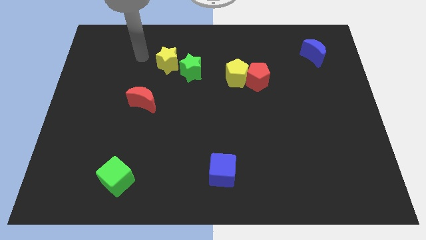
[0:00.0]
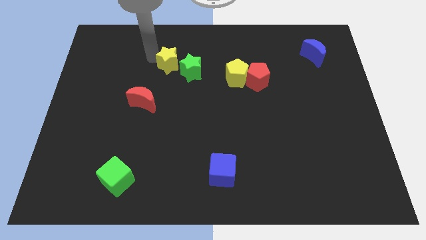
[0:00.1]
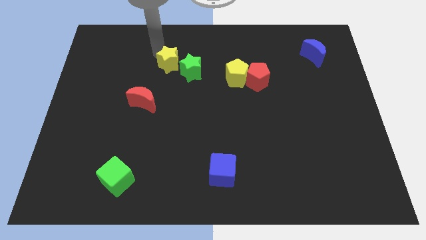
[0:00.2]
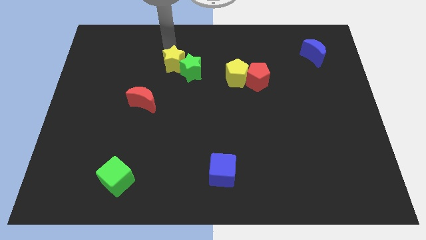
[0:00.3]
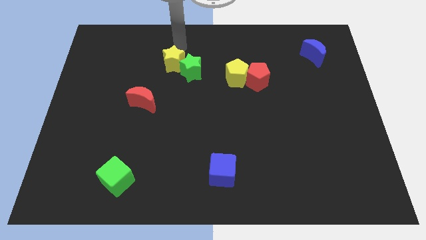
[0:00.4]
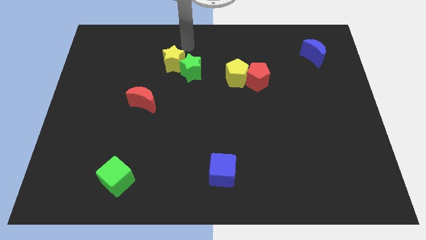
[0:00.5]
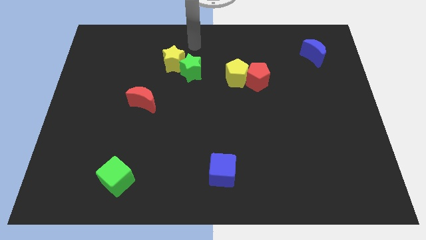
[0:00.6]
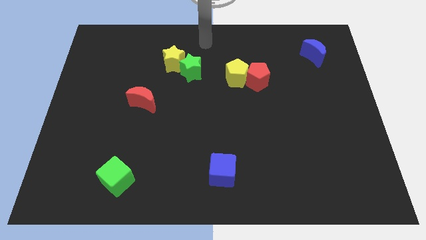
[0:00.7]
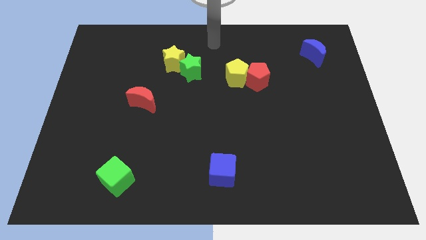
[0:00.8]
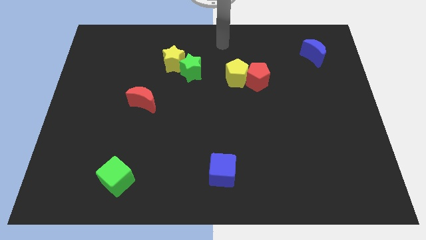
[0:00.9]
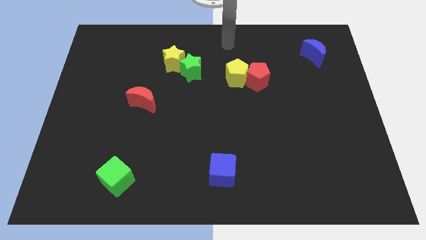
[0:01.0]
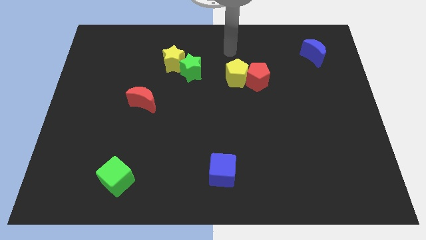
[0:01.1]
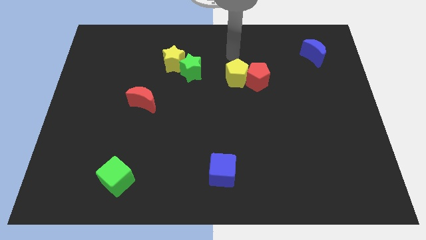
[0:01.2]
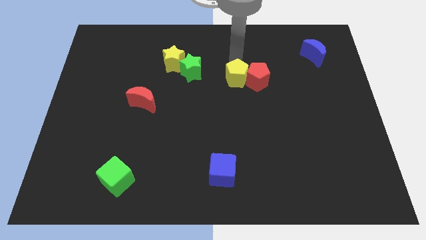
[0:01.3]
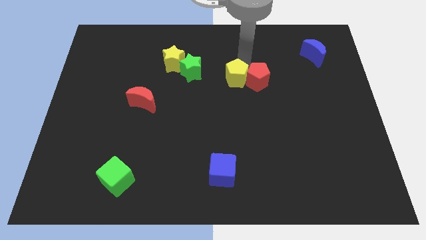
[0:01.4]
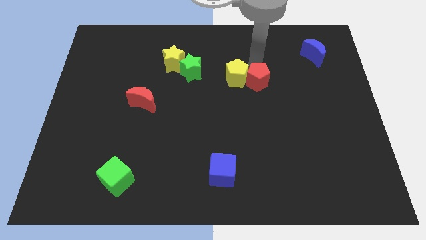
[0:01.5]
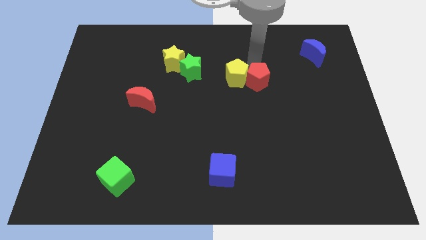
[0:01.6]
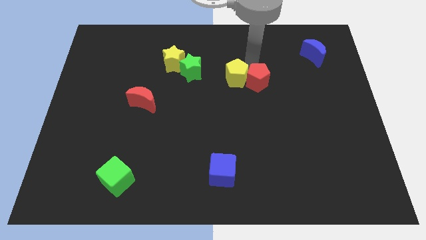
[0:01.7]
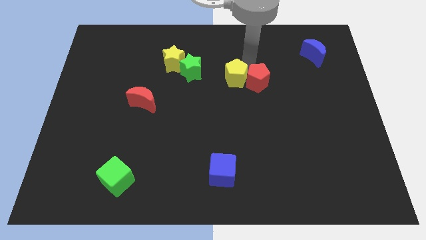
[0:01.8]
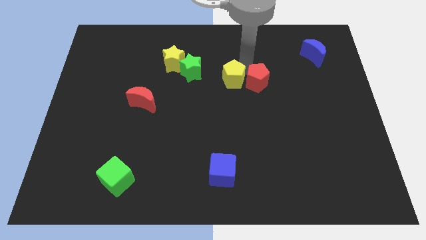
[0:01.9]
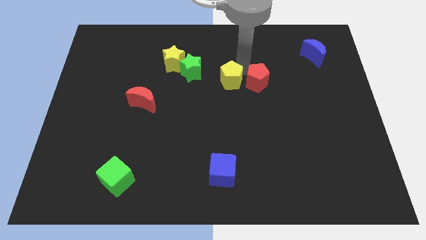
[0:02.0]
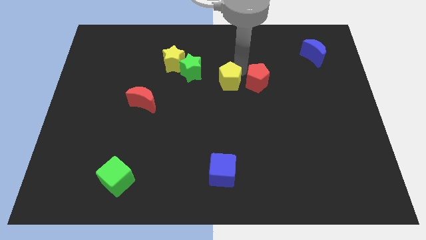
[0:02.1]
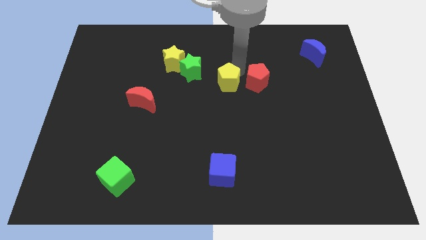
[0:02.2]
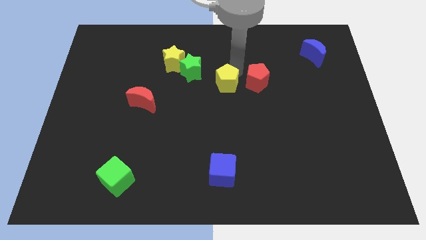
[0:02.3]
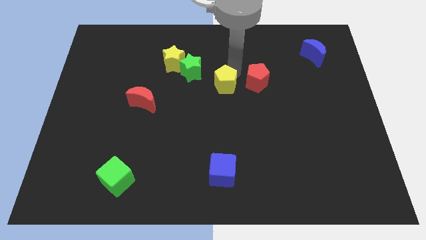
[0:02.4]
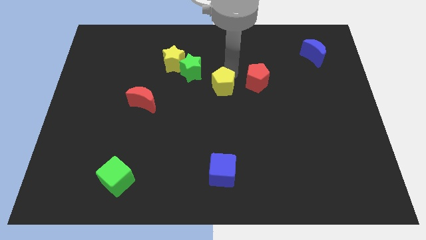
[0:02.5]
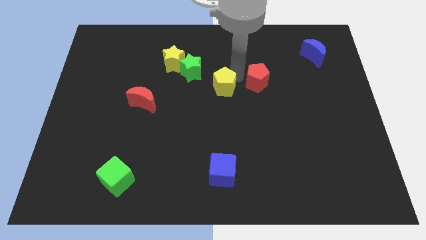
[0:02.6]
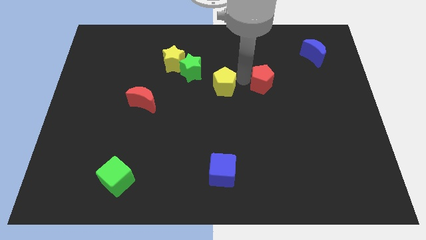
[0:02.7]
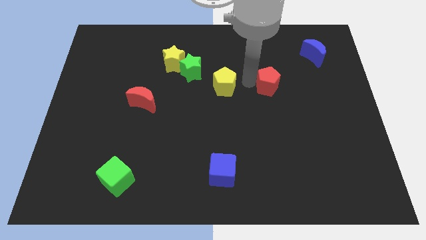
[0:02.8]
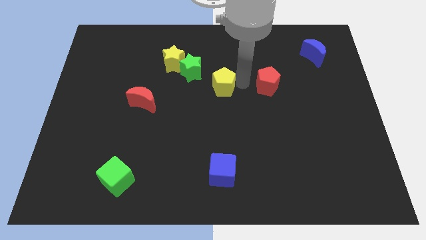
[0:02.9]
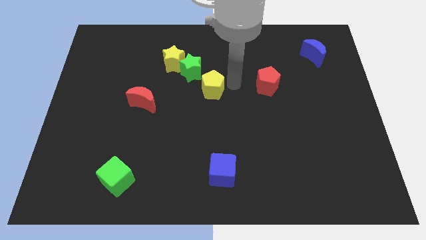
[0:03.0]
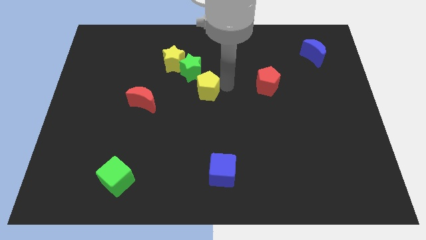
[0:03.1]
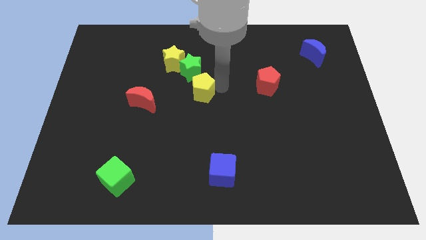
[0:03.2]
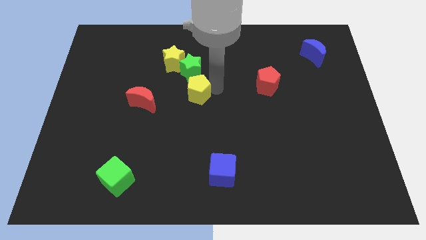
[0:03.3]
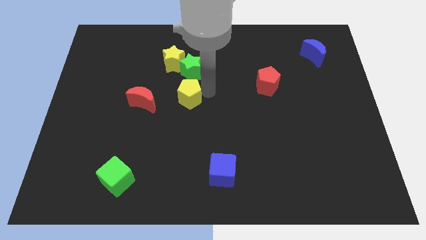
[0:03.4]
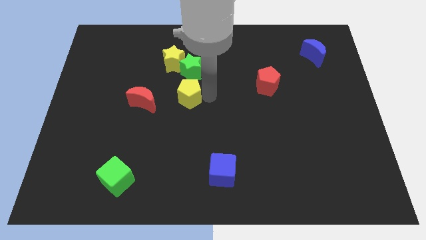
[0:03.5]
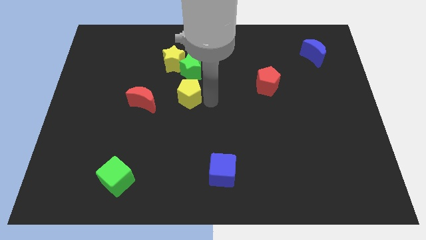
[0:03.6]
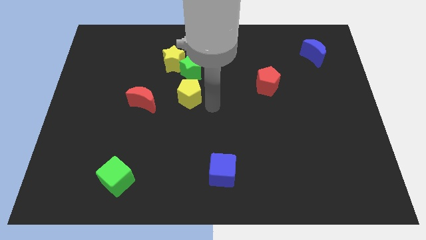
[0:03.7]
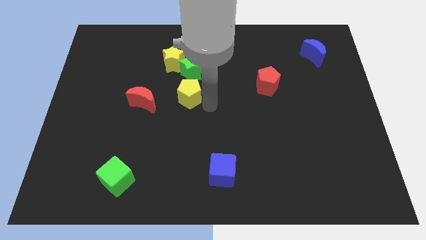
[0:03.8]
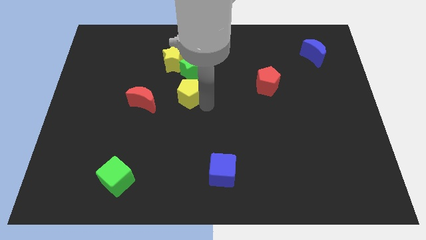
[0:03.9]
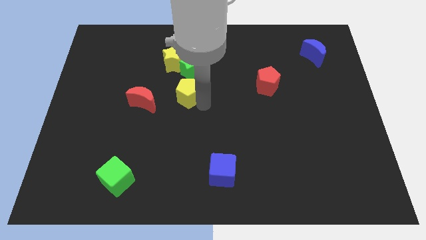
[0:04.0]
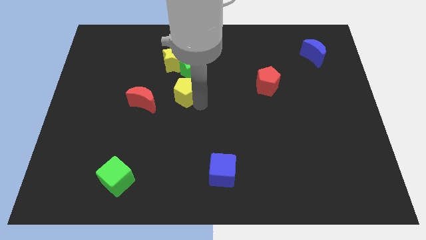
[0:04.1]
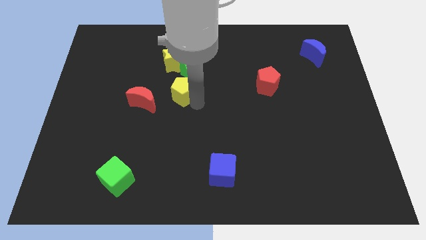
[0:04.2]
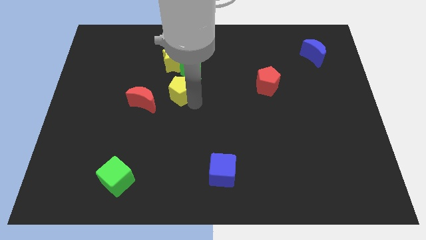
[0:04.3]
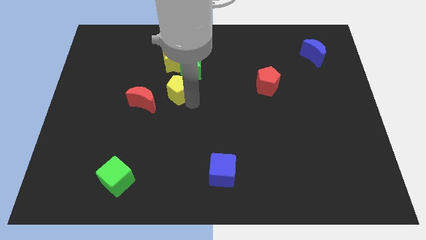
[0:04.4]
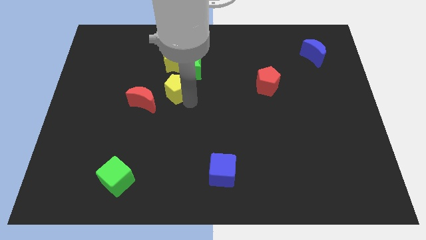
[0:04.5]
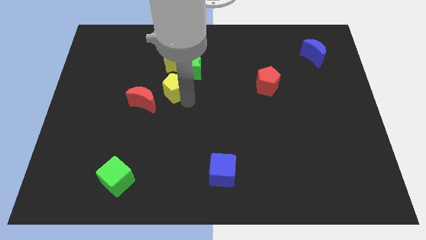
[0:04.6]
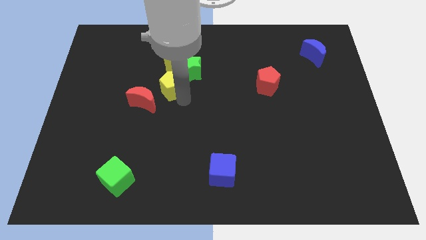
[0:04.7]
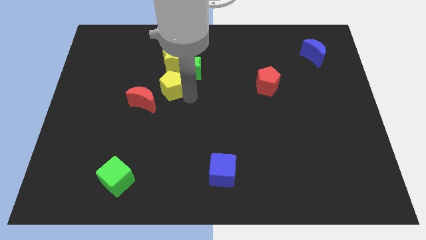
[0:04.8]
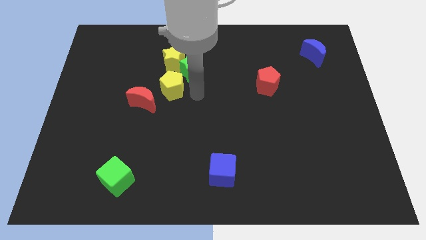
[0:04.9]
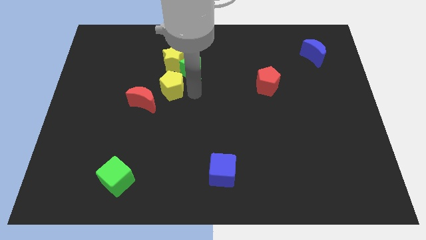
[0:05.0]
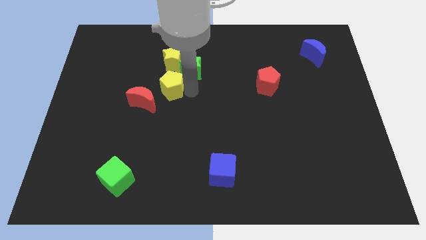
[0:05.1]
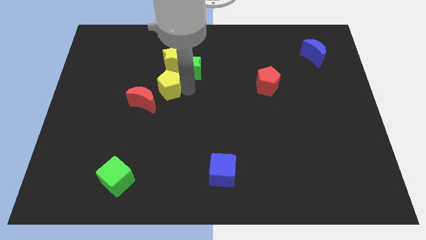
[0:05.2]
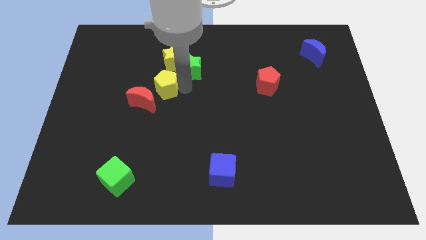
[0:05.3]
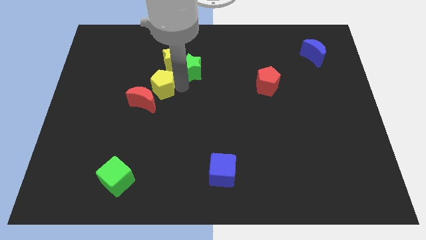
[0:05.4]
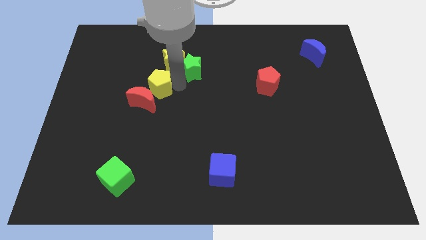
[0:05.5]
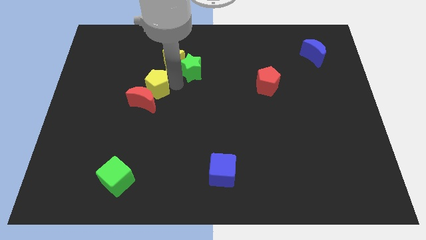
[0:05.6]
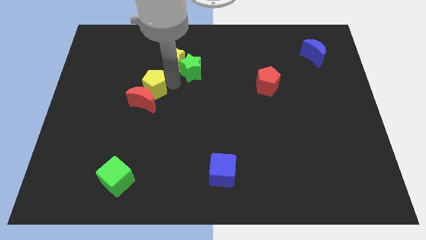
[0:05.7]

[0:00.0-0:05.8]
move the yellow pentagon to the left

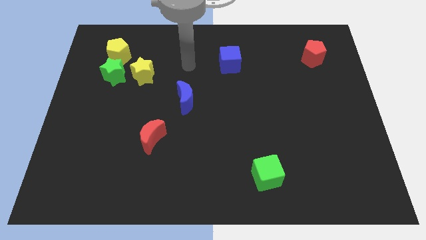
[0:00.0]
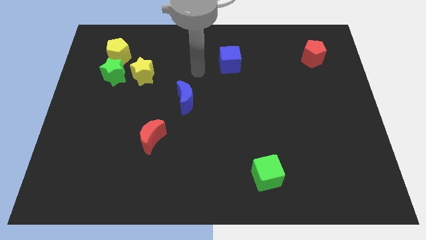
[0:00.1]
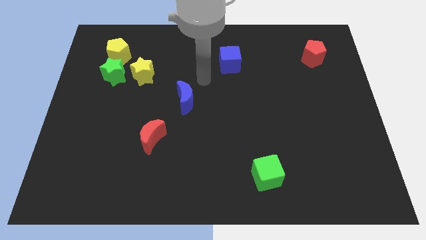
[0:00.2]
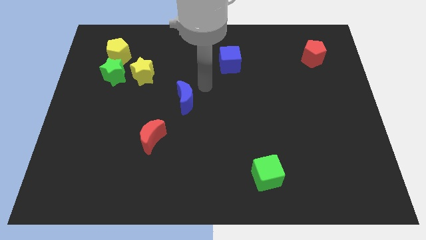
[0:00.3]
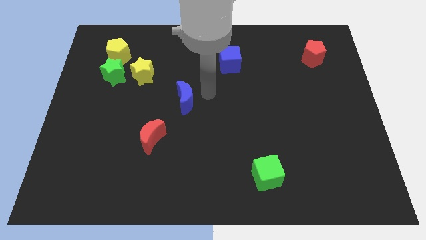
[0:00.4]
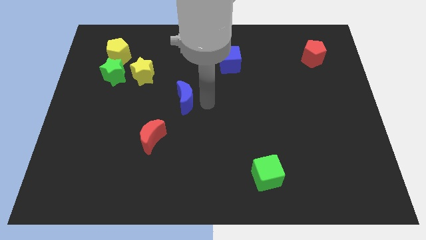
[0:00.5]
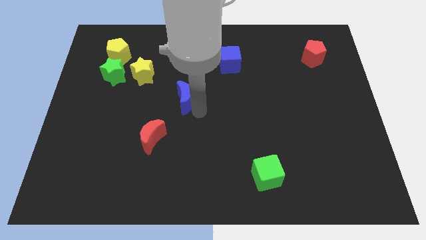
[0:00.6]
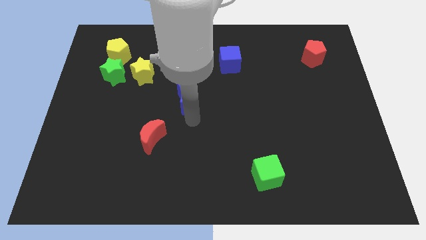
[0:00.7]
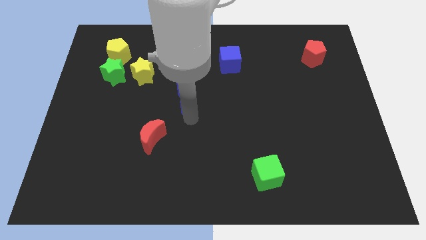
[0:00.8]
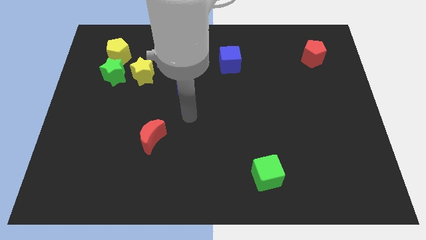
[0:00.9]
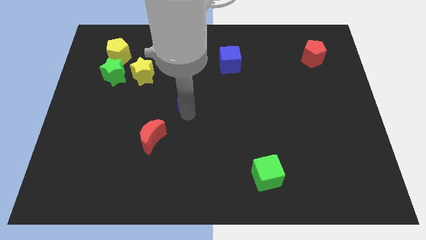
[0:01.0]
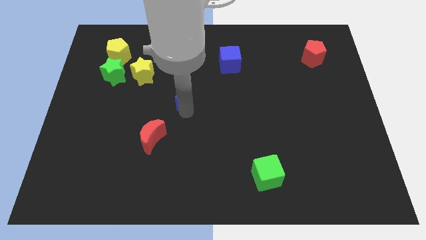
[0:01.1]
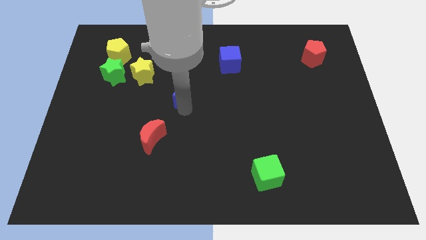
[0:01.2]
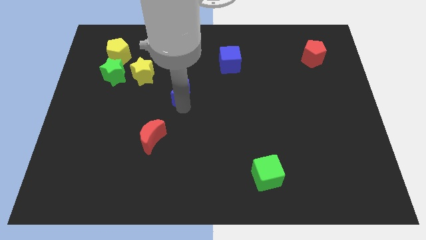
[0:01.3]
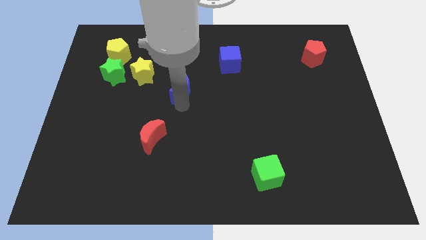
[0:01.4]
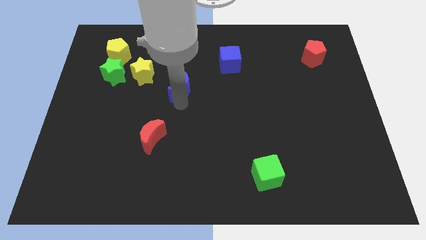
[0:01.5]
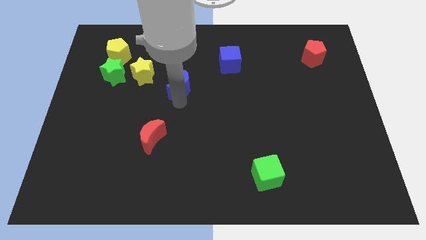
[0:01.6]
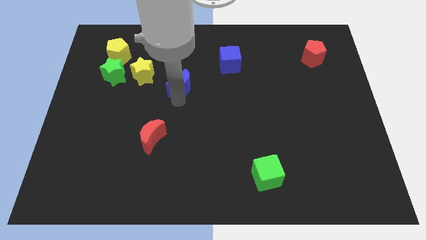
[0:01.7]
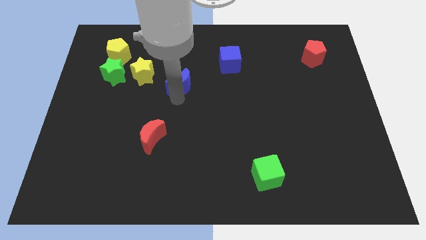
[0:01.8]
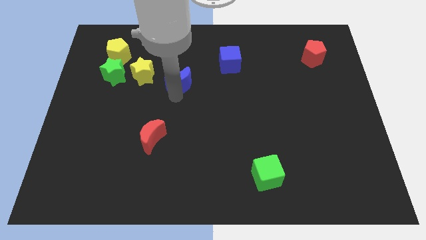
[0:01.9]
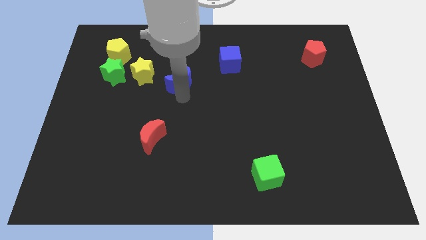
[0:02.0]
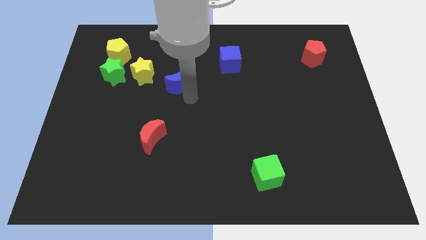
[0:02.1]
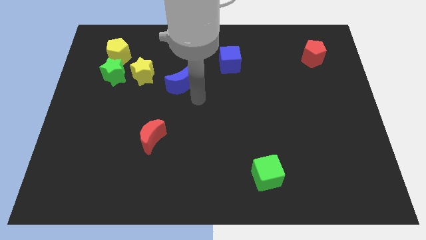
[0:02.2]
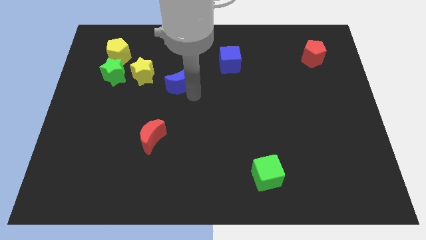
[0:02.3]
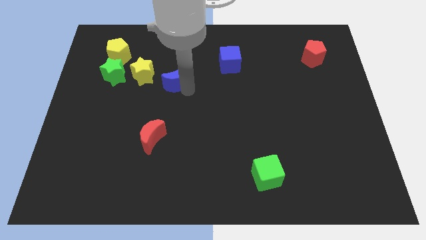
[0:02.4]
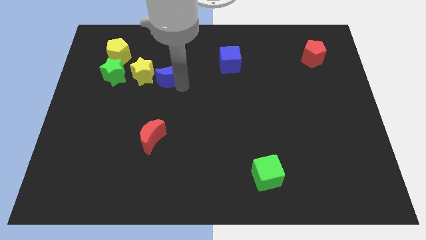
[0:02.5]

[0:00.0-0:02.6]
slide the blue moon a little diagonally up and to the left
